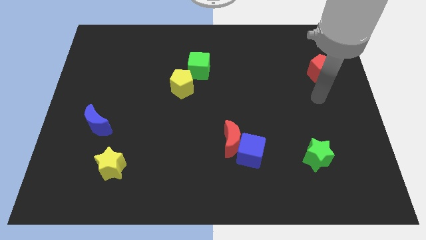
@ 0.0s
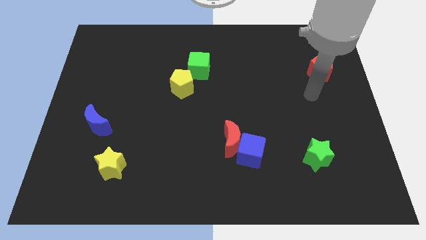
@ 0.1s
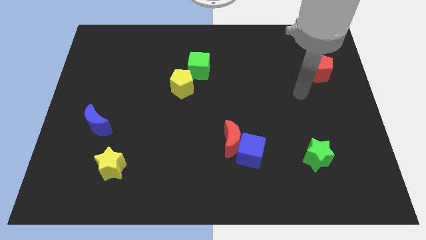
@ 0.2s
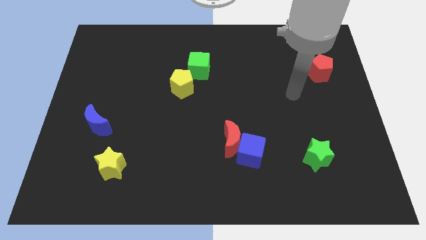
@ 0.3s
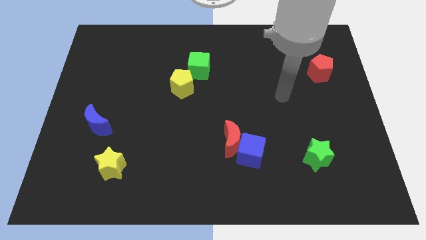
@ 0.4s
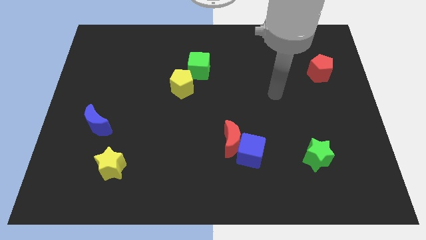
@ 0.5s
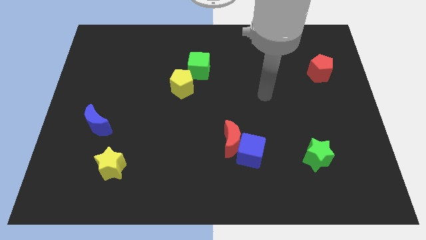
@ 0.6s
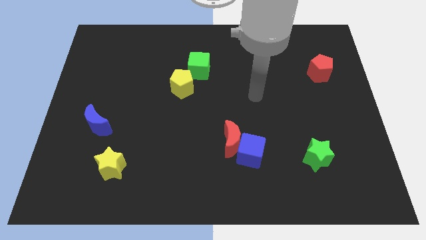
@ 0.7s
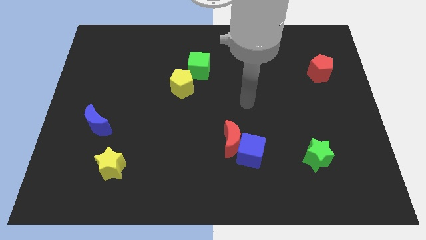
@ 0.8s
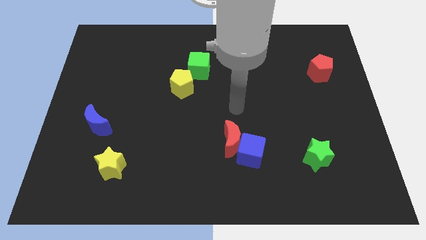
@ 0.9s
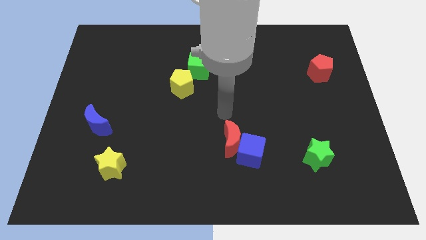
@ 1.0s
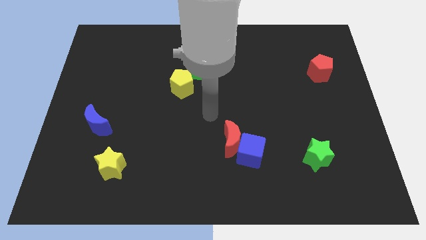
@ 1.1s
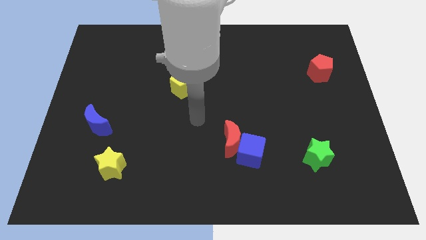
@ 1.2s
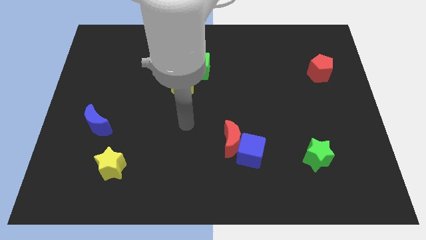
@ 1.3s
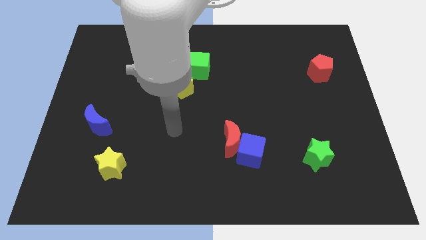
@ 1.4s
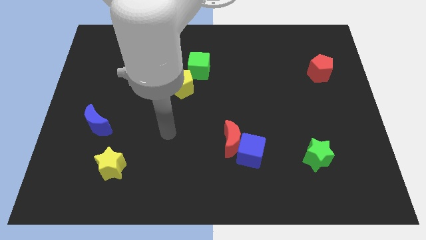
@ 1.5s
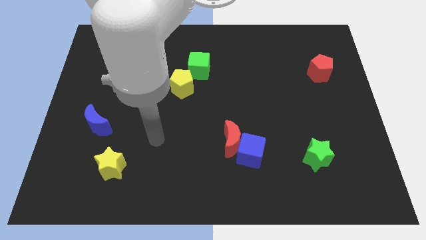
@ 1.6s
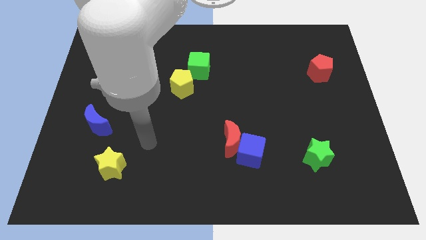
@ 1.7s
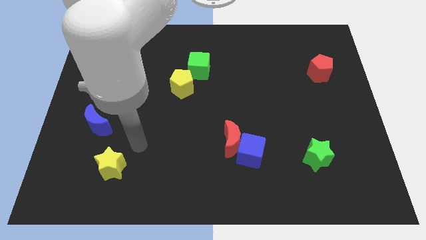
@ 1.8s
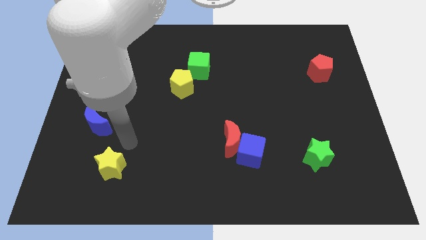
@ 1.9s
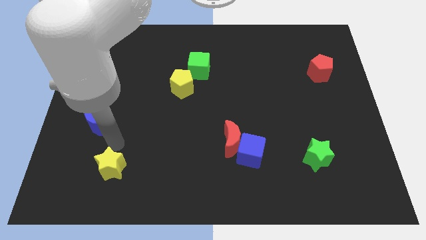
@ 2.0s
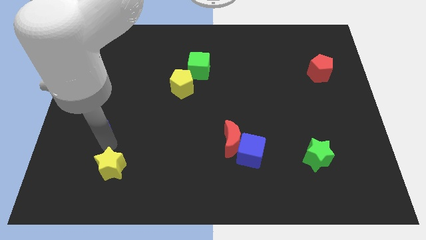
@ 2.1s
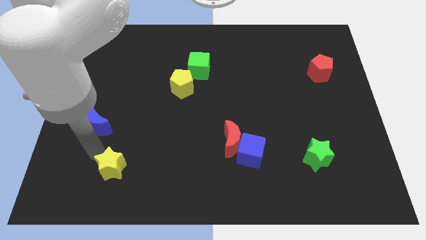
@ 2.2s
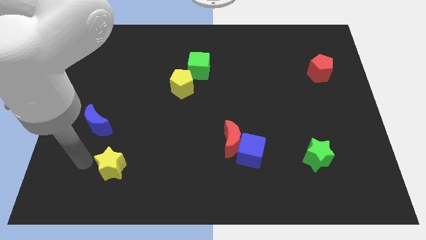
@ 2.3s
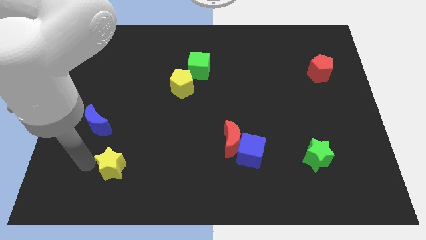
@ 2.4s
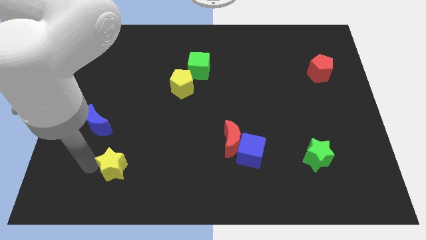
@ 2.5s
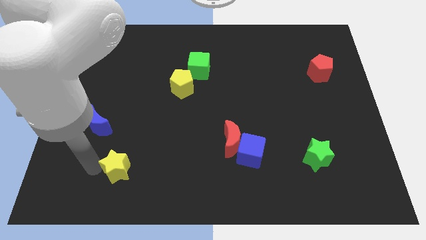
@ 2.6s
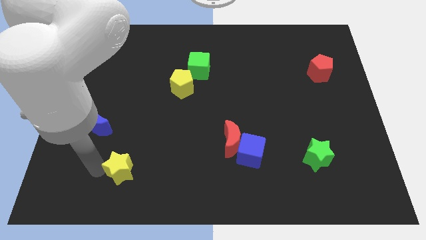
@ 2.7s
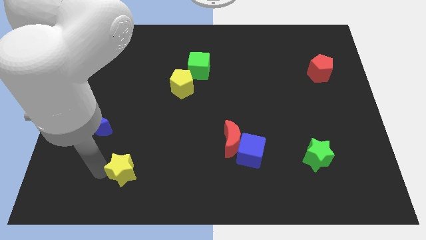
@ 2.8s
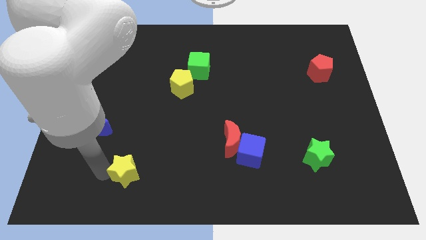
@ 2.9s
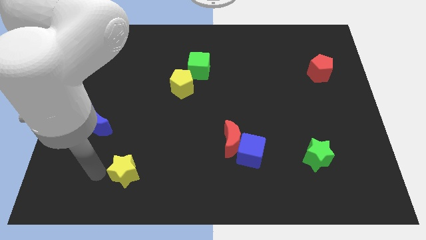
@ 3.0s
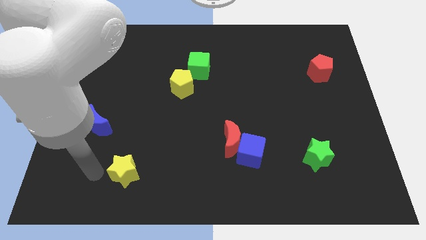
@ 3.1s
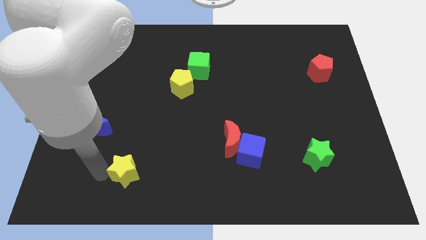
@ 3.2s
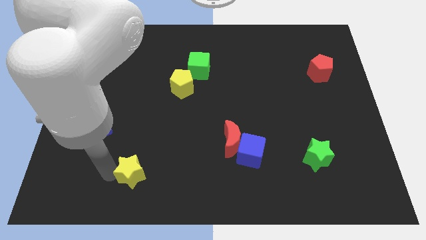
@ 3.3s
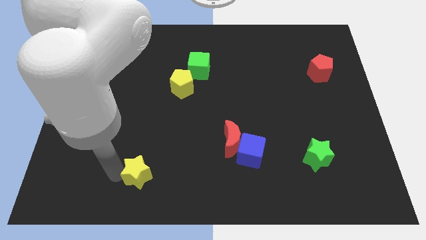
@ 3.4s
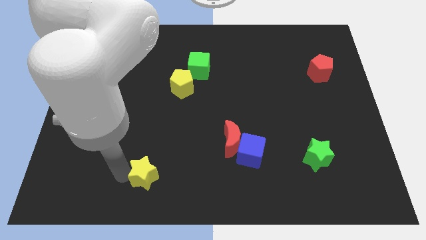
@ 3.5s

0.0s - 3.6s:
slightly slide the yellow star to the right

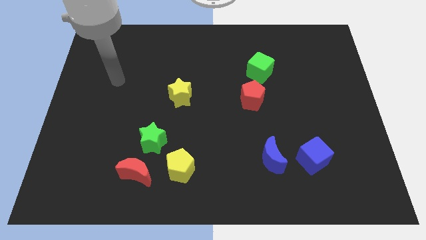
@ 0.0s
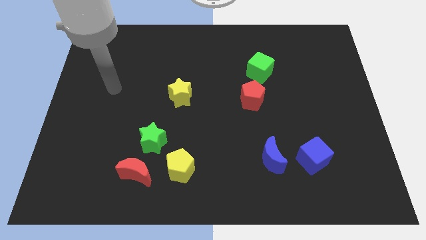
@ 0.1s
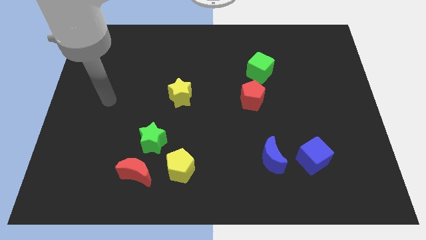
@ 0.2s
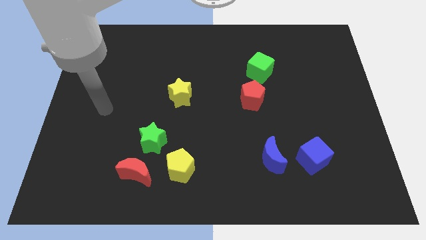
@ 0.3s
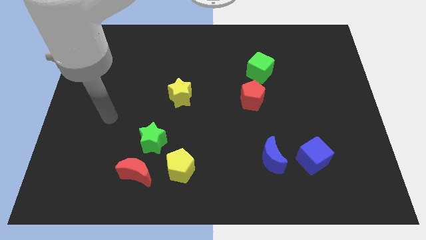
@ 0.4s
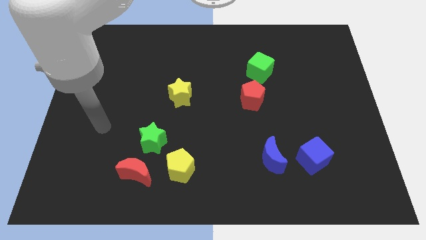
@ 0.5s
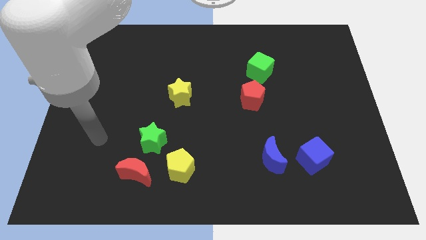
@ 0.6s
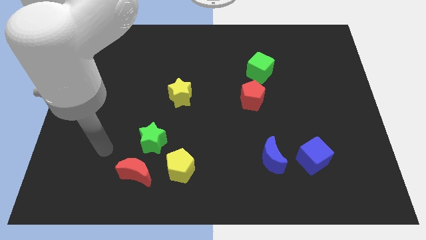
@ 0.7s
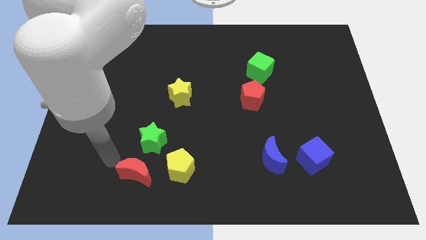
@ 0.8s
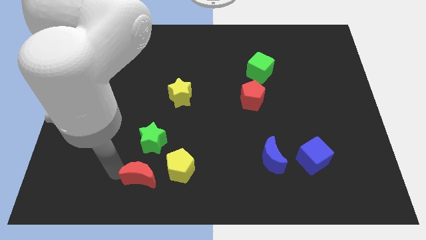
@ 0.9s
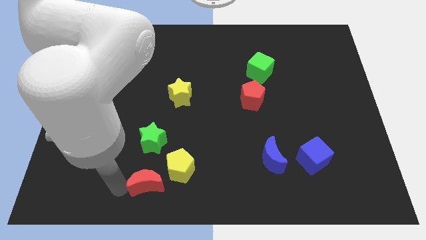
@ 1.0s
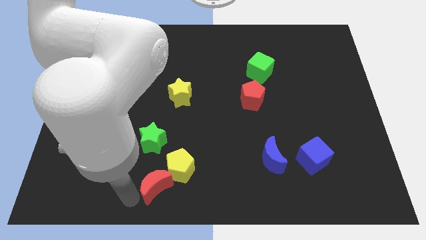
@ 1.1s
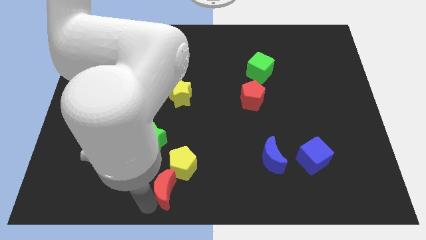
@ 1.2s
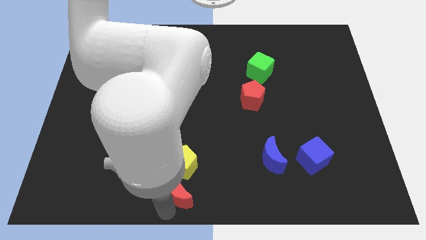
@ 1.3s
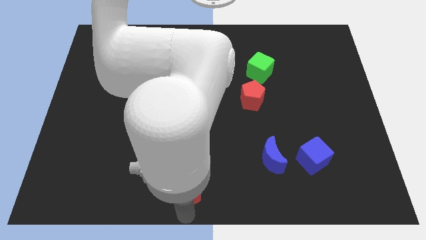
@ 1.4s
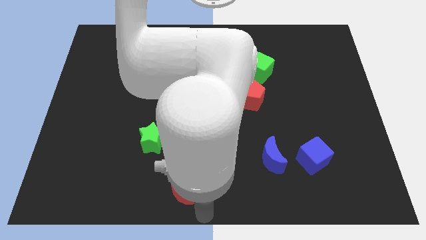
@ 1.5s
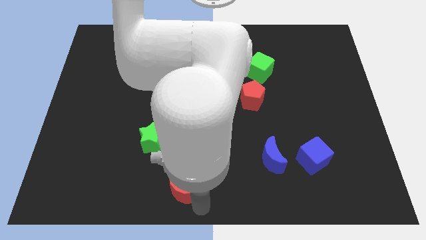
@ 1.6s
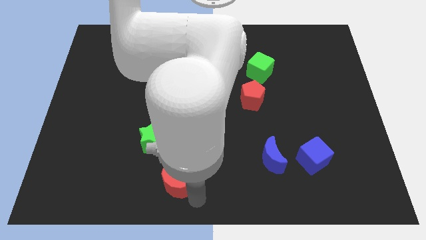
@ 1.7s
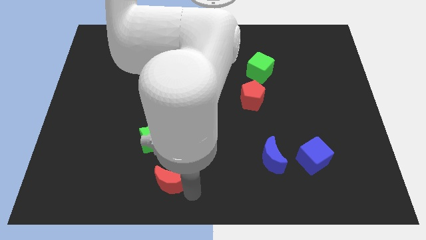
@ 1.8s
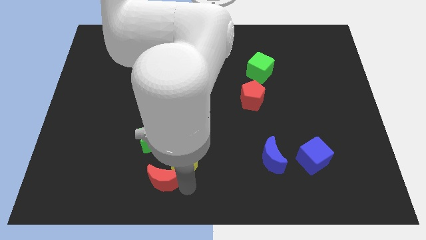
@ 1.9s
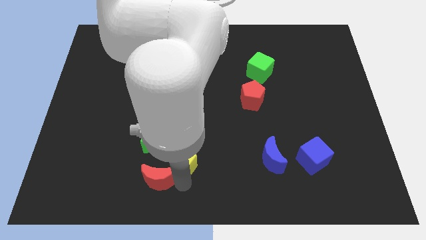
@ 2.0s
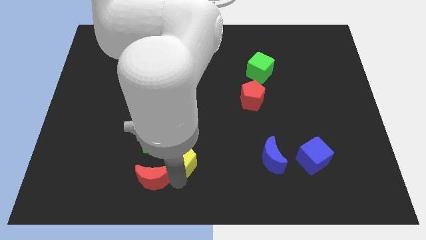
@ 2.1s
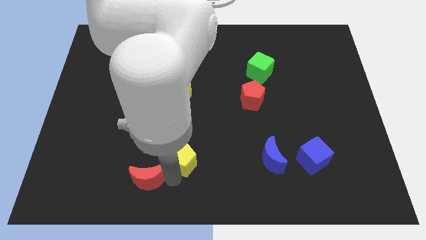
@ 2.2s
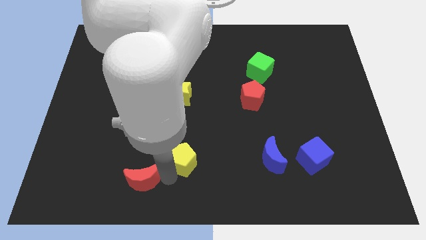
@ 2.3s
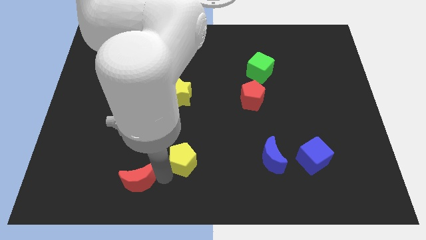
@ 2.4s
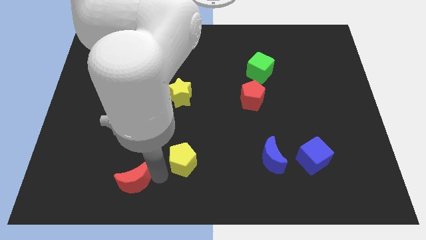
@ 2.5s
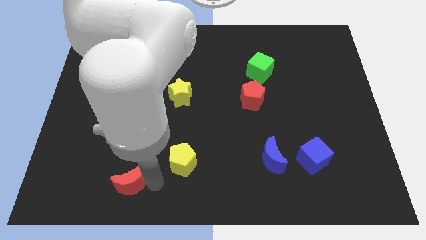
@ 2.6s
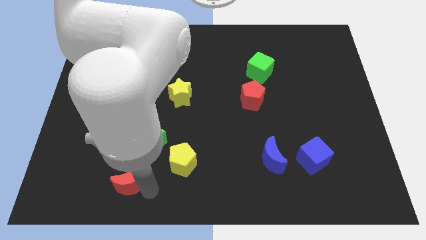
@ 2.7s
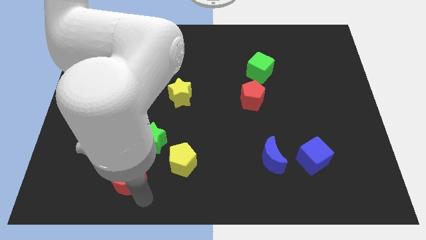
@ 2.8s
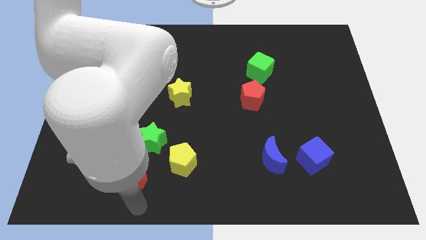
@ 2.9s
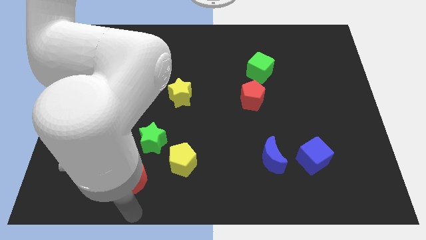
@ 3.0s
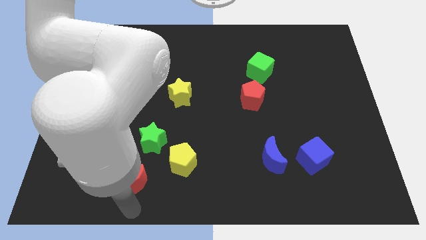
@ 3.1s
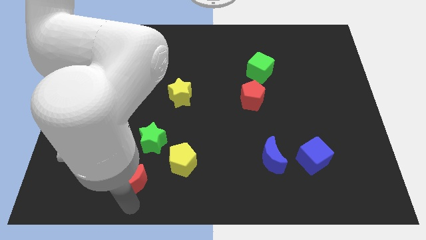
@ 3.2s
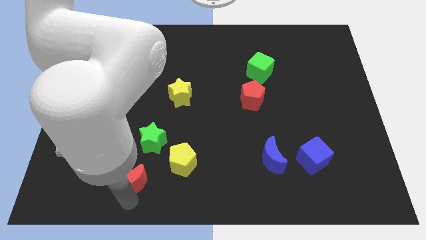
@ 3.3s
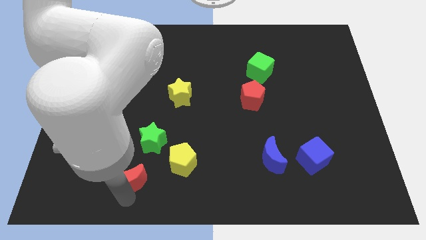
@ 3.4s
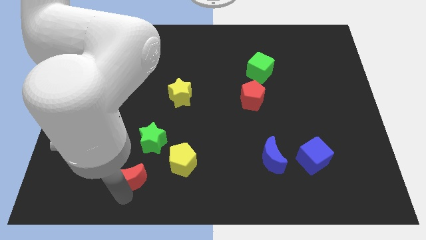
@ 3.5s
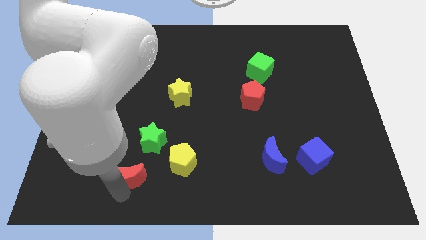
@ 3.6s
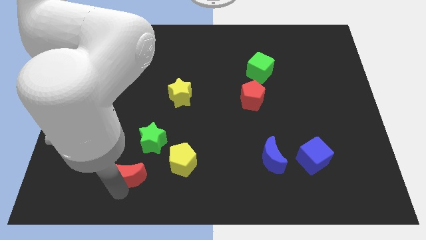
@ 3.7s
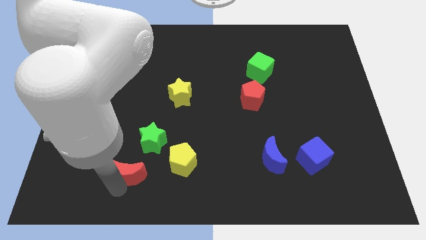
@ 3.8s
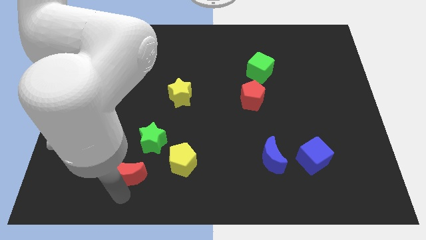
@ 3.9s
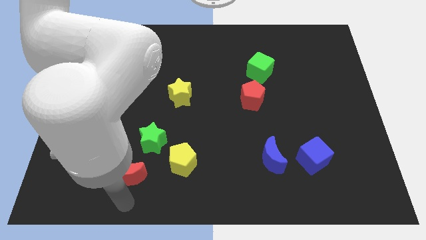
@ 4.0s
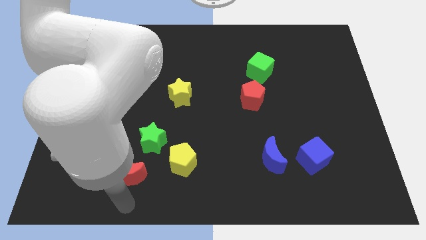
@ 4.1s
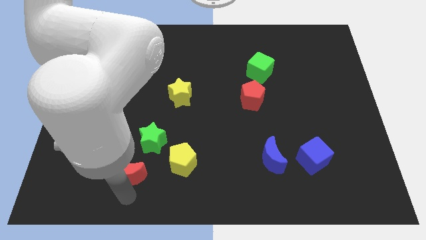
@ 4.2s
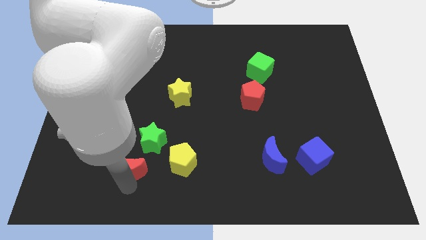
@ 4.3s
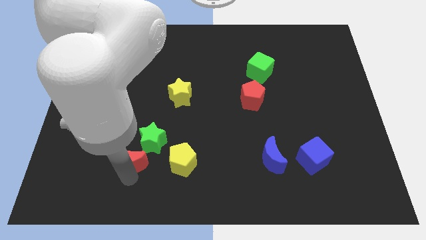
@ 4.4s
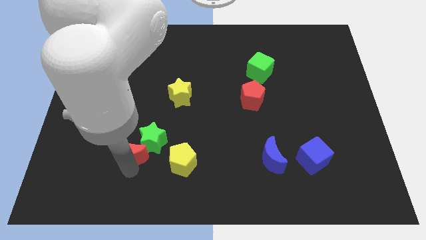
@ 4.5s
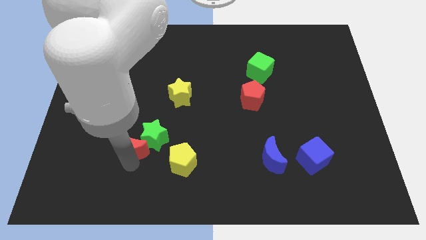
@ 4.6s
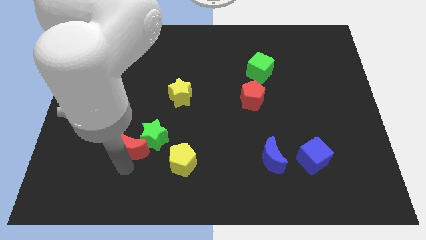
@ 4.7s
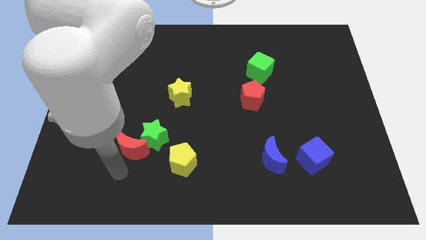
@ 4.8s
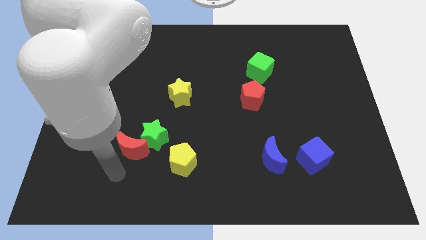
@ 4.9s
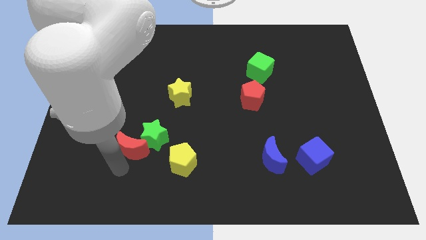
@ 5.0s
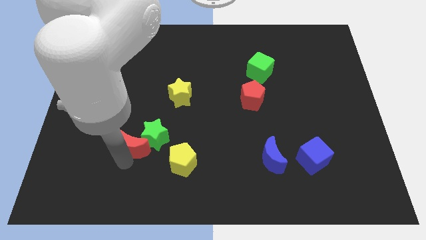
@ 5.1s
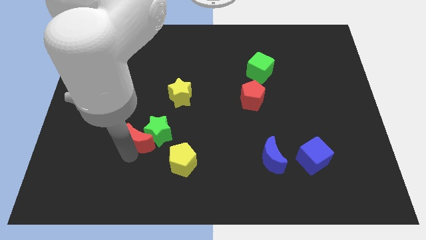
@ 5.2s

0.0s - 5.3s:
move the red moon a bit upwards
